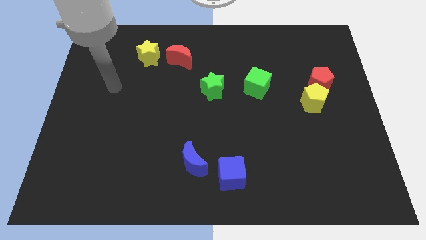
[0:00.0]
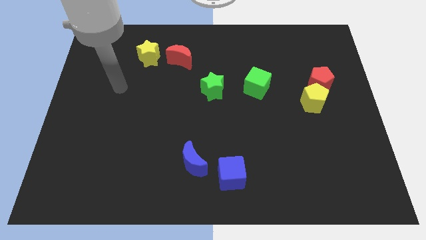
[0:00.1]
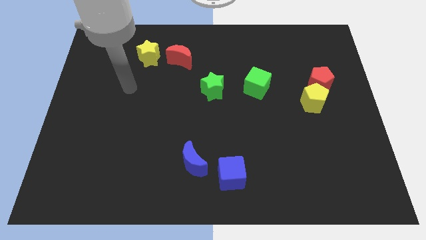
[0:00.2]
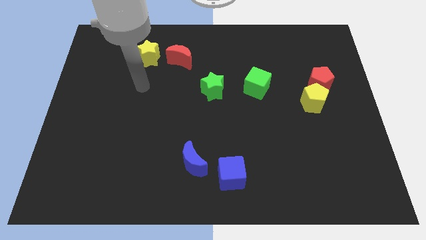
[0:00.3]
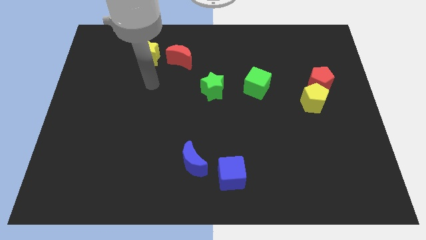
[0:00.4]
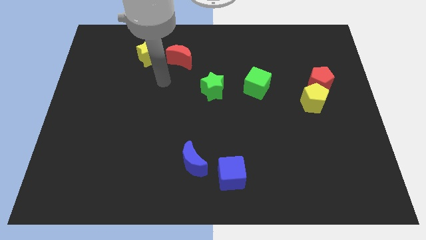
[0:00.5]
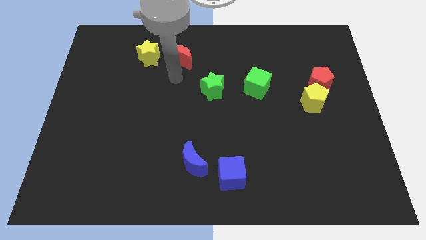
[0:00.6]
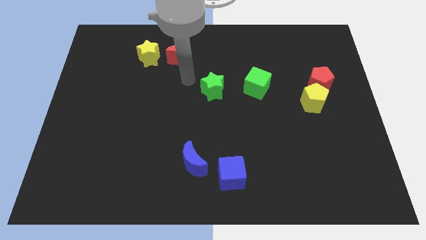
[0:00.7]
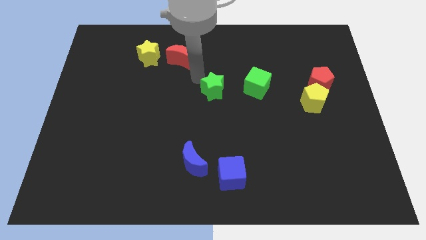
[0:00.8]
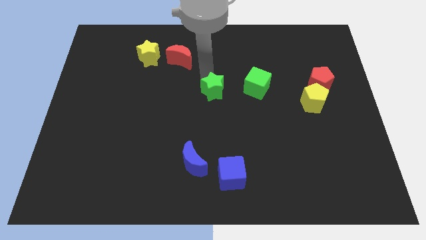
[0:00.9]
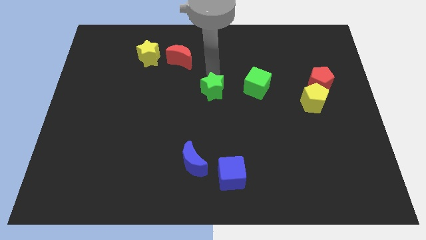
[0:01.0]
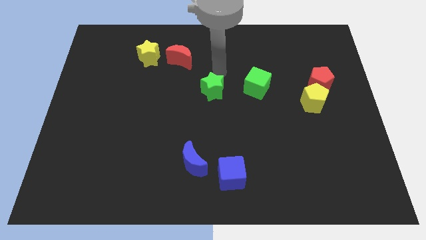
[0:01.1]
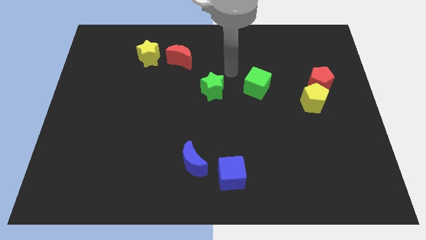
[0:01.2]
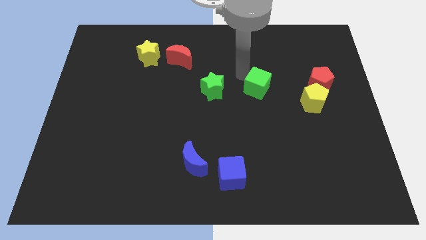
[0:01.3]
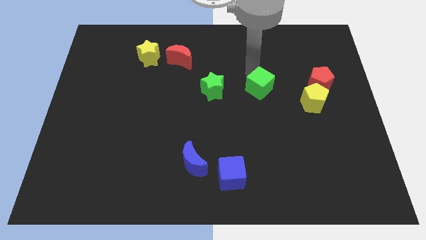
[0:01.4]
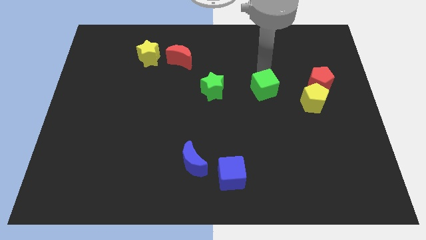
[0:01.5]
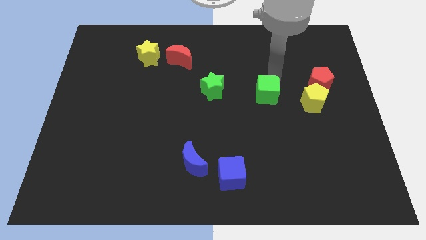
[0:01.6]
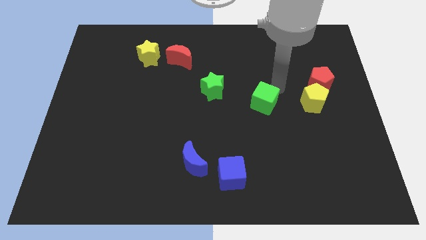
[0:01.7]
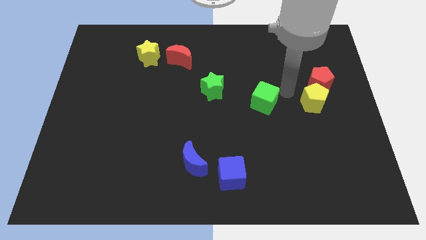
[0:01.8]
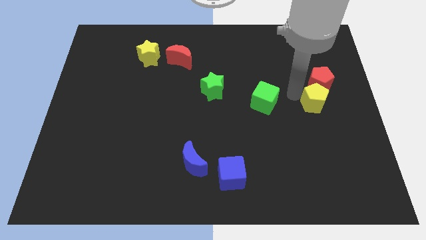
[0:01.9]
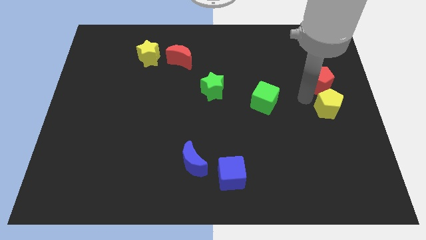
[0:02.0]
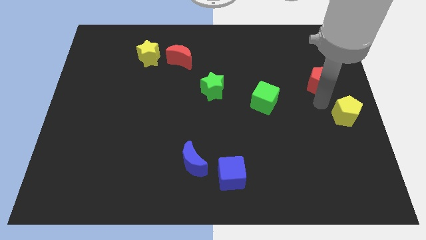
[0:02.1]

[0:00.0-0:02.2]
separate the red pentagon from the yellow pentagon

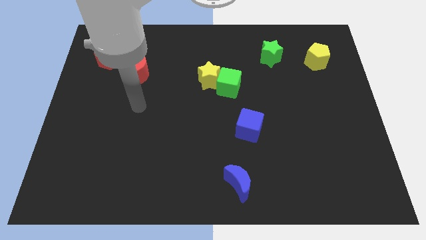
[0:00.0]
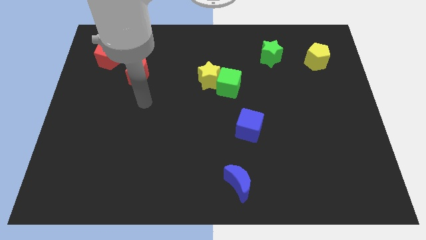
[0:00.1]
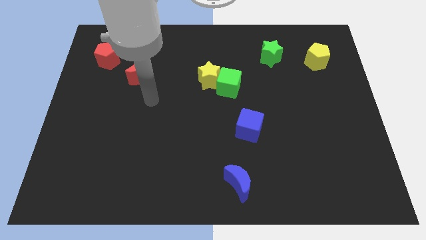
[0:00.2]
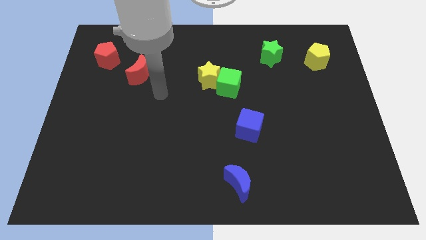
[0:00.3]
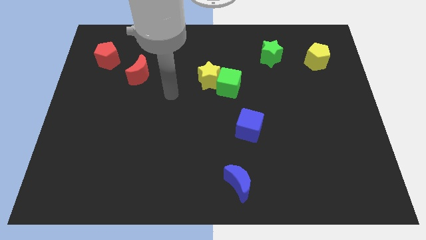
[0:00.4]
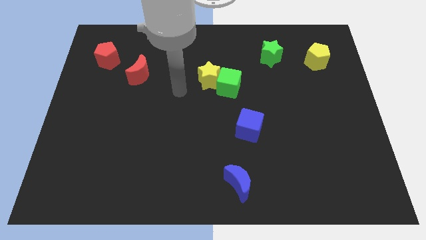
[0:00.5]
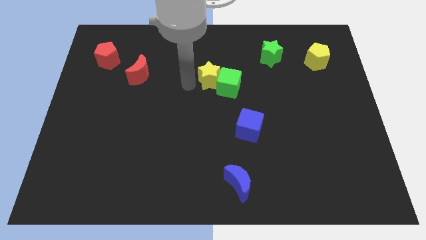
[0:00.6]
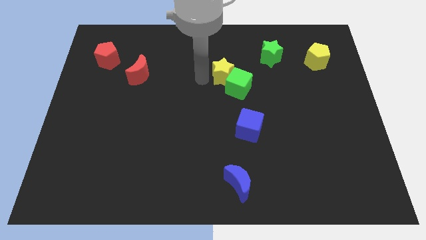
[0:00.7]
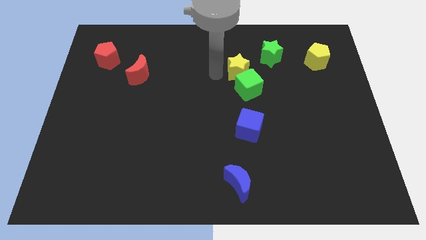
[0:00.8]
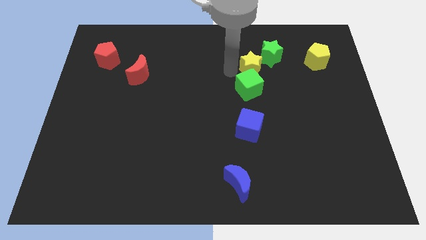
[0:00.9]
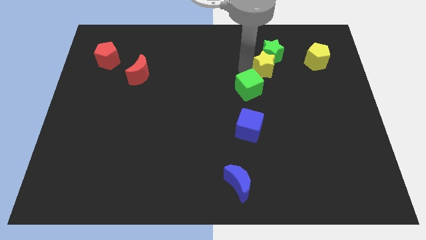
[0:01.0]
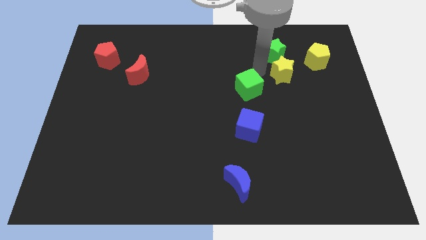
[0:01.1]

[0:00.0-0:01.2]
move the green cube away from the yellow star

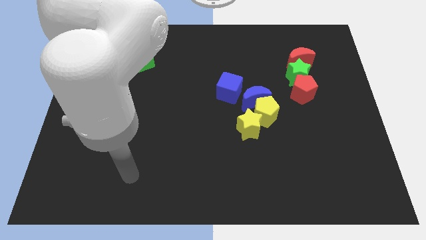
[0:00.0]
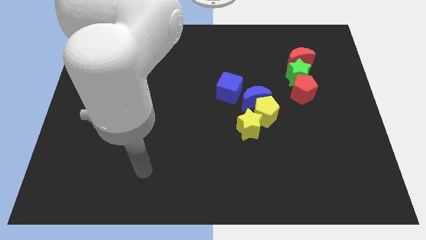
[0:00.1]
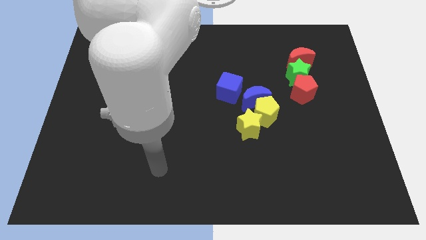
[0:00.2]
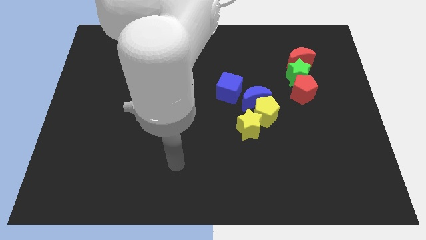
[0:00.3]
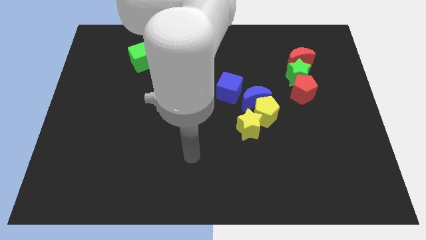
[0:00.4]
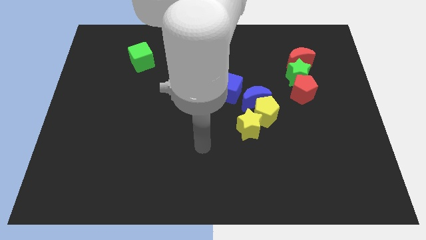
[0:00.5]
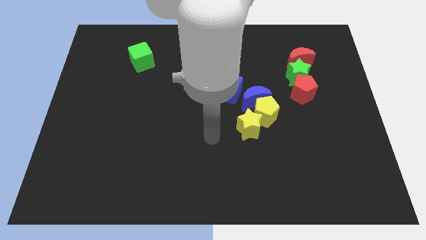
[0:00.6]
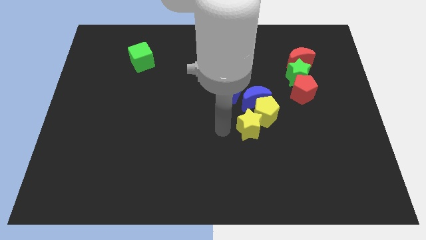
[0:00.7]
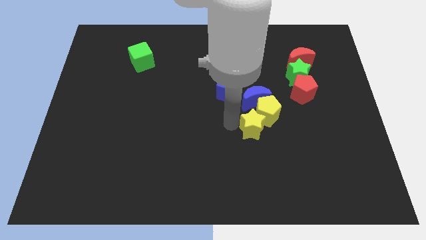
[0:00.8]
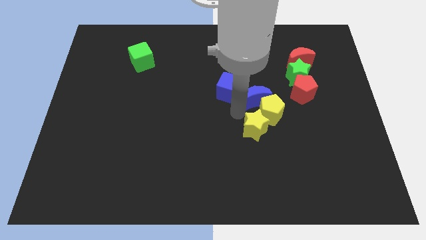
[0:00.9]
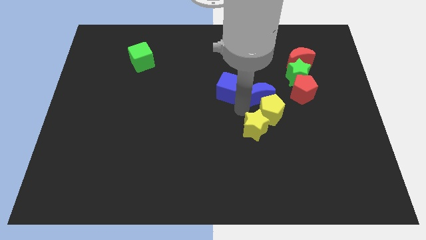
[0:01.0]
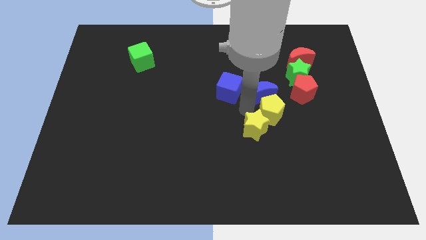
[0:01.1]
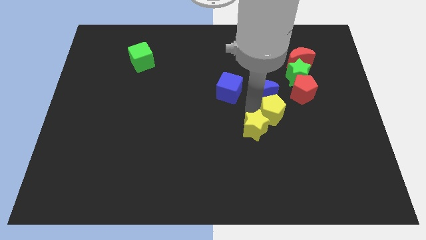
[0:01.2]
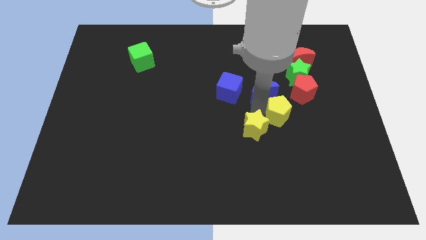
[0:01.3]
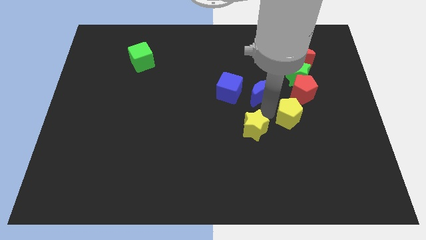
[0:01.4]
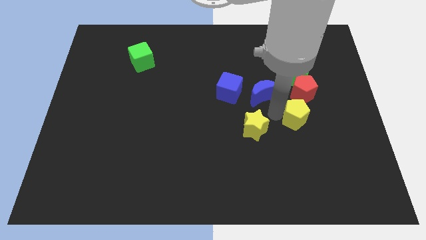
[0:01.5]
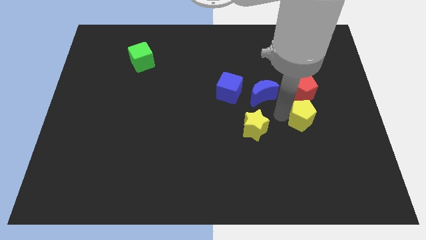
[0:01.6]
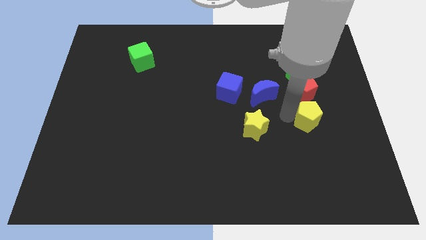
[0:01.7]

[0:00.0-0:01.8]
separate the yellow pentagon from the blue moon and yellow star

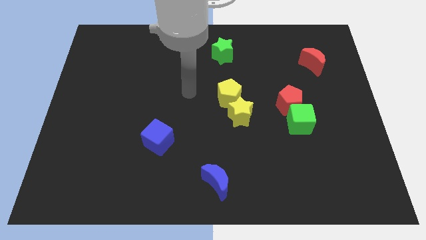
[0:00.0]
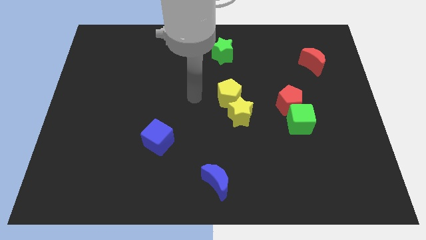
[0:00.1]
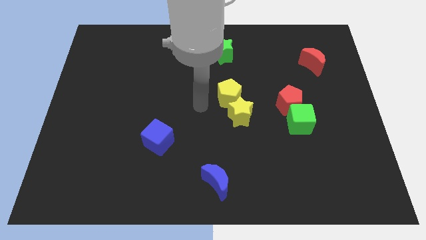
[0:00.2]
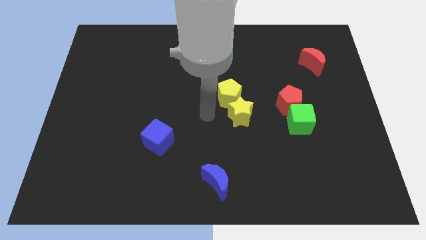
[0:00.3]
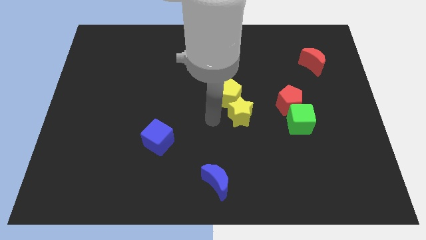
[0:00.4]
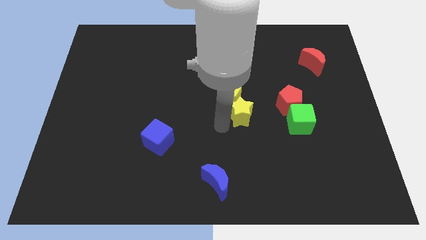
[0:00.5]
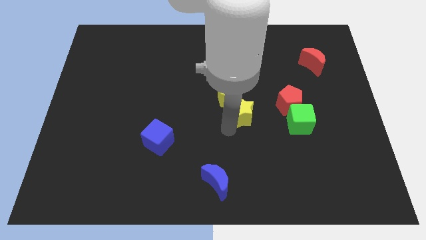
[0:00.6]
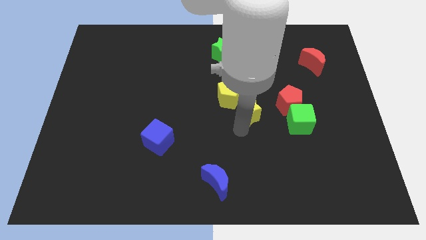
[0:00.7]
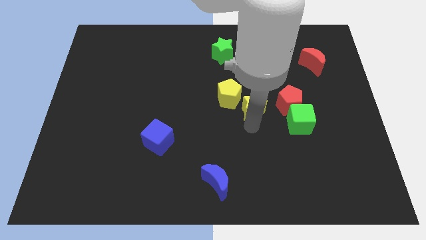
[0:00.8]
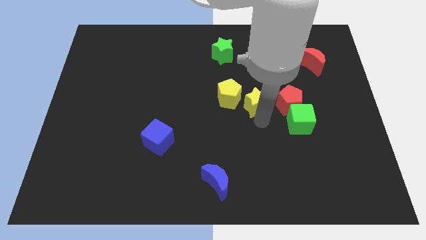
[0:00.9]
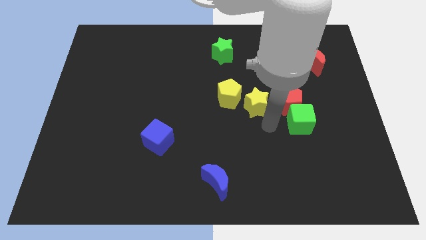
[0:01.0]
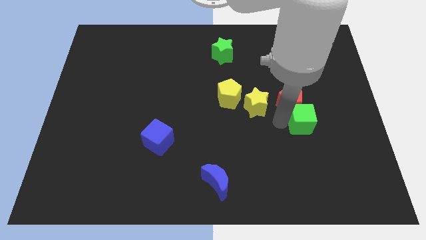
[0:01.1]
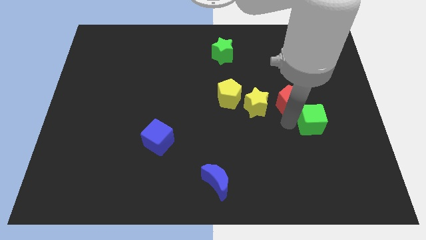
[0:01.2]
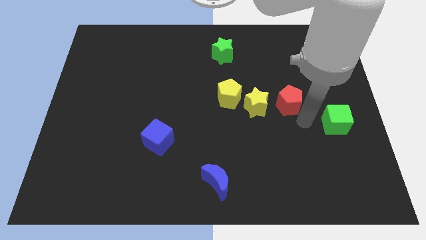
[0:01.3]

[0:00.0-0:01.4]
move the red pentagon away from the green cube

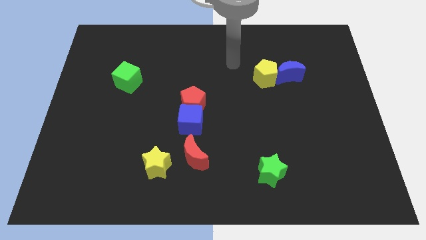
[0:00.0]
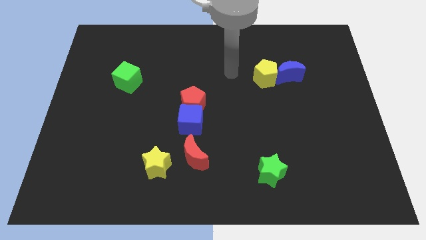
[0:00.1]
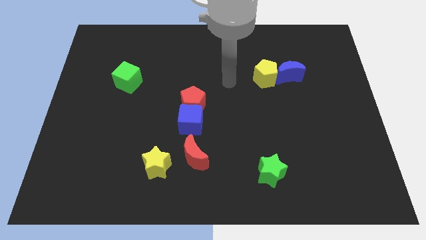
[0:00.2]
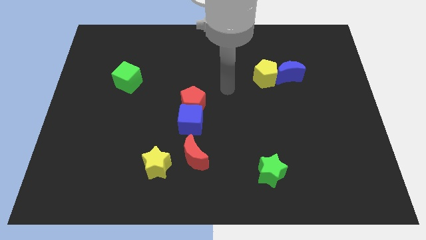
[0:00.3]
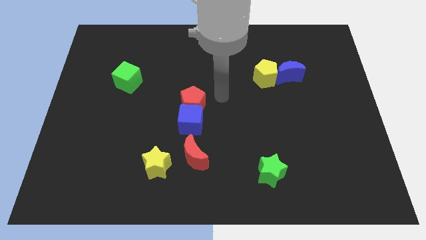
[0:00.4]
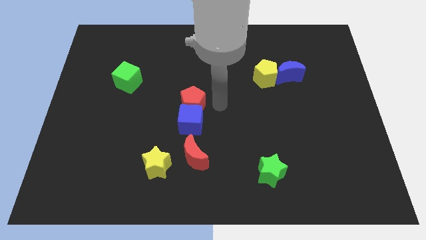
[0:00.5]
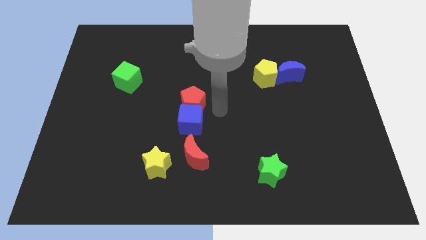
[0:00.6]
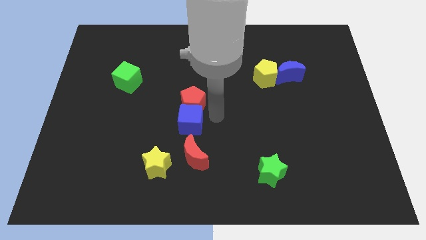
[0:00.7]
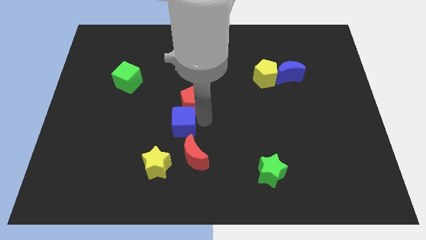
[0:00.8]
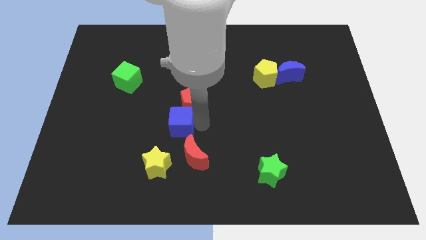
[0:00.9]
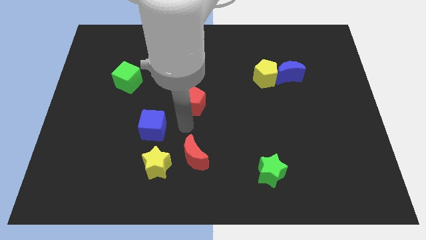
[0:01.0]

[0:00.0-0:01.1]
move the red pentagon away from the blue cube

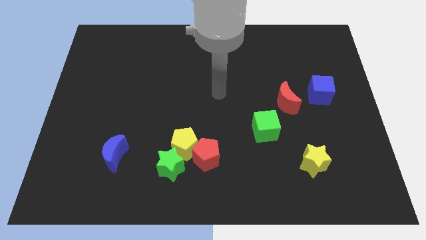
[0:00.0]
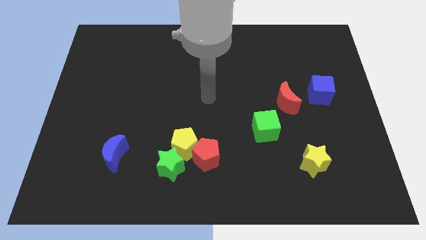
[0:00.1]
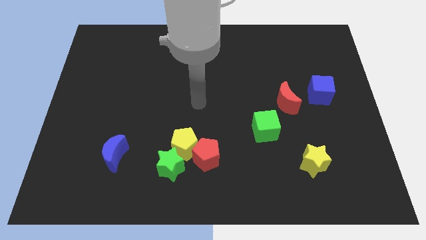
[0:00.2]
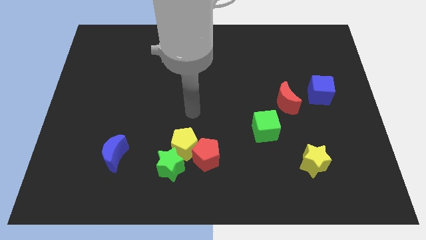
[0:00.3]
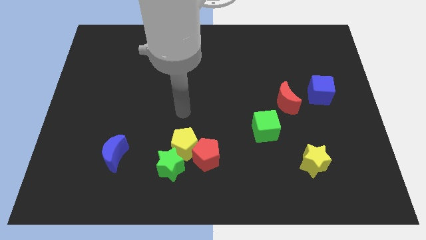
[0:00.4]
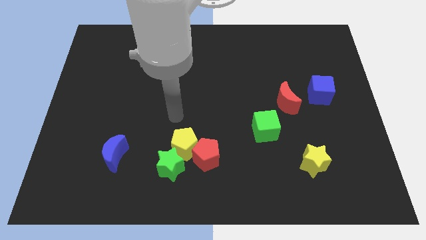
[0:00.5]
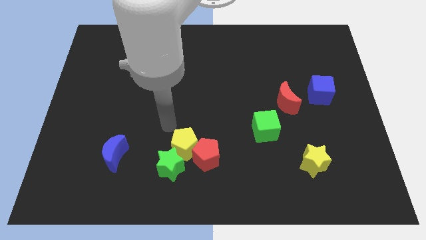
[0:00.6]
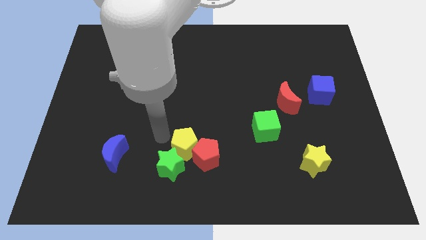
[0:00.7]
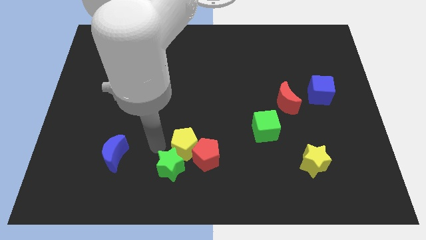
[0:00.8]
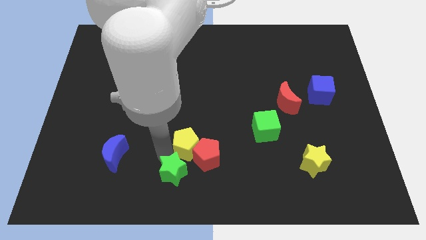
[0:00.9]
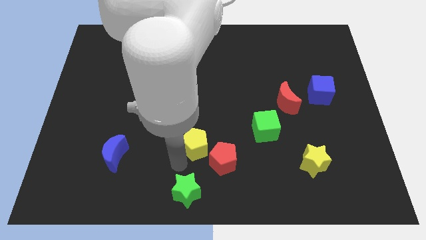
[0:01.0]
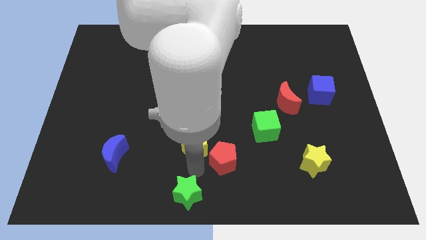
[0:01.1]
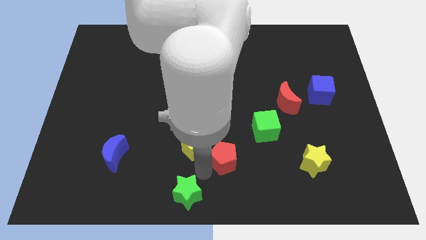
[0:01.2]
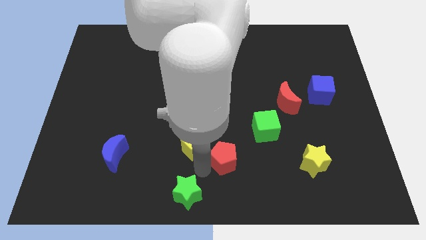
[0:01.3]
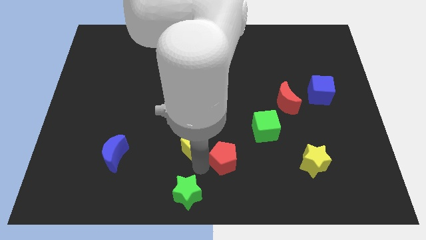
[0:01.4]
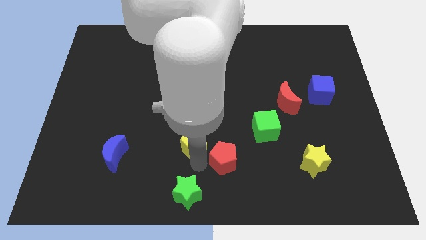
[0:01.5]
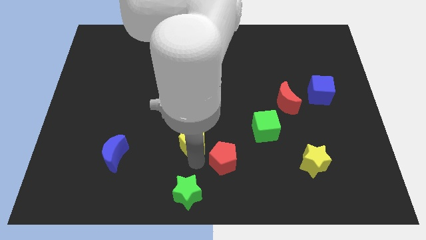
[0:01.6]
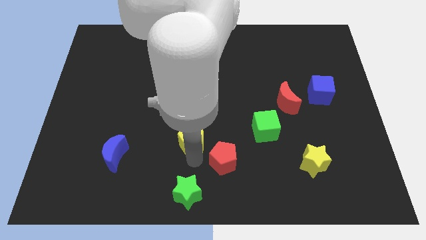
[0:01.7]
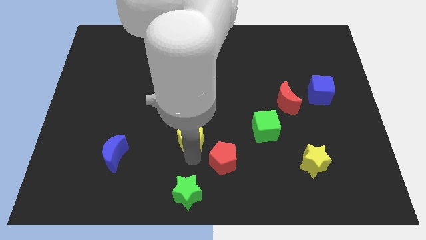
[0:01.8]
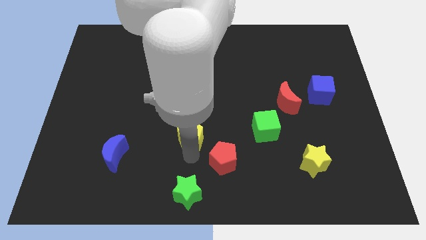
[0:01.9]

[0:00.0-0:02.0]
move the yellow pentagon away from the red pentagon and green star
